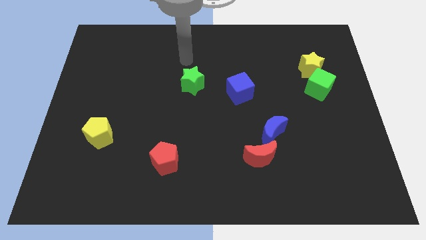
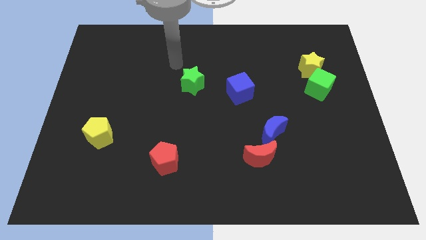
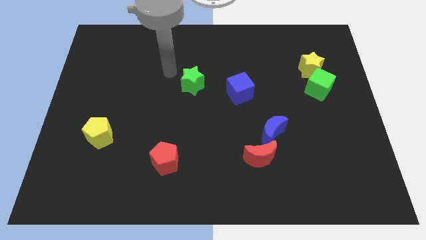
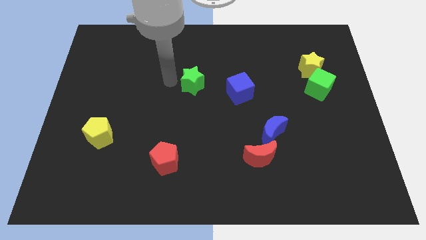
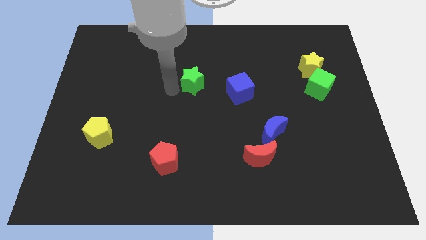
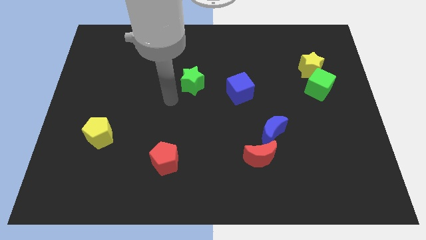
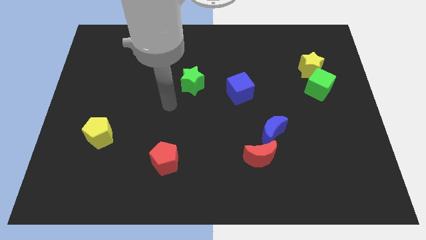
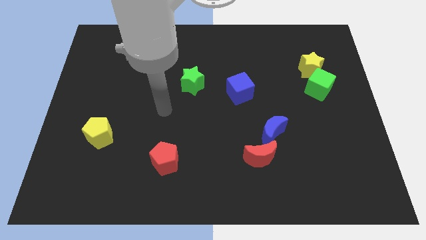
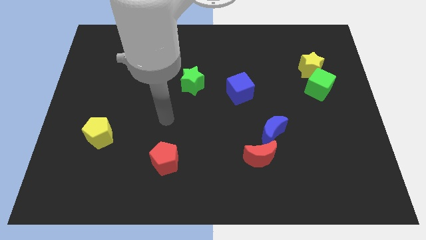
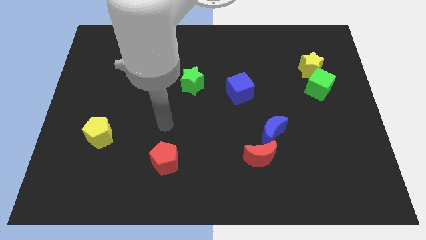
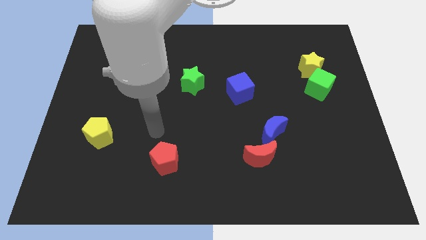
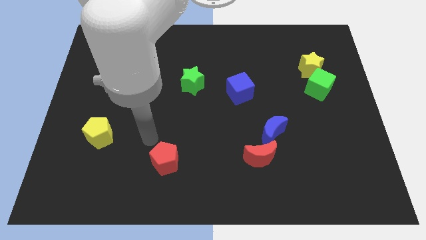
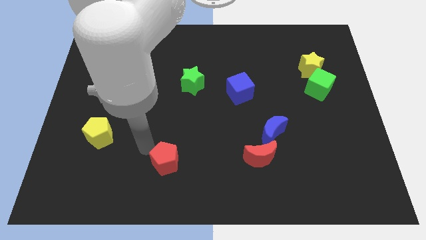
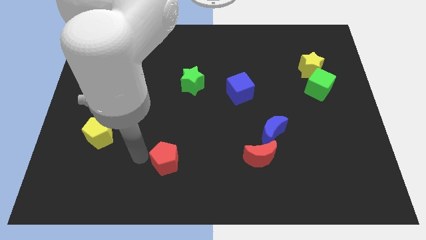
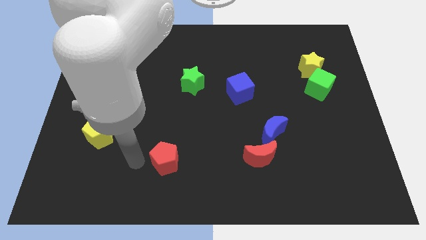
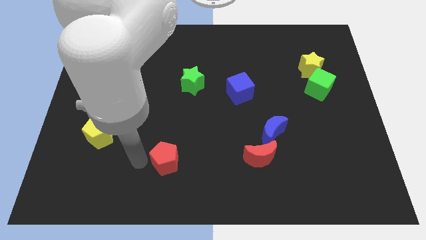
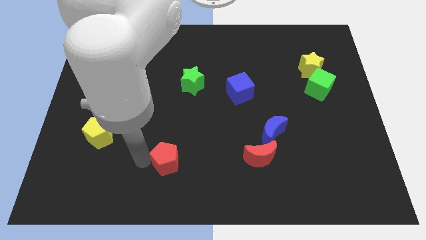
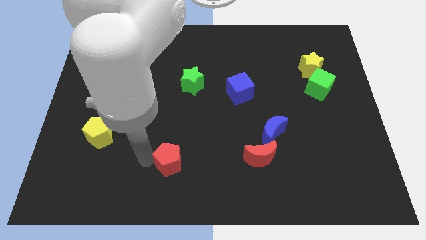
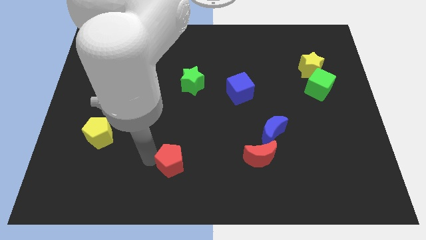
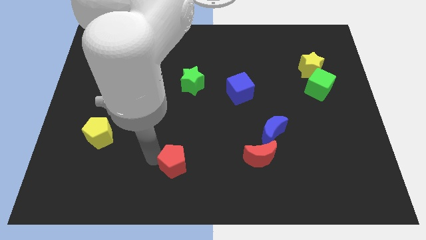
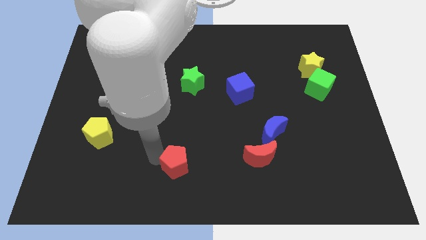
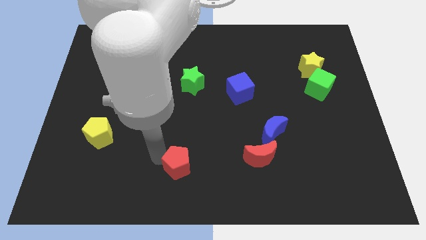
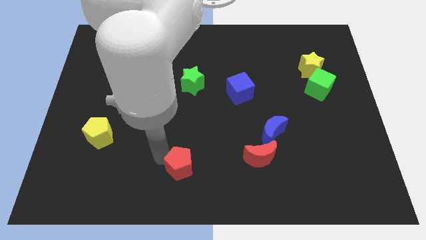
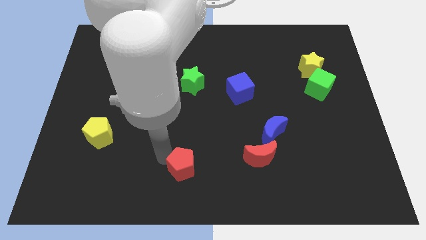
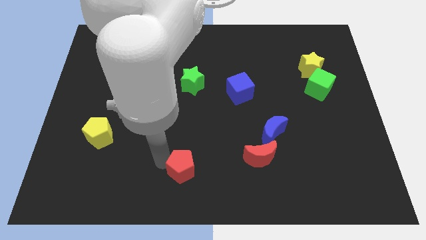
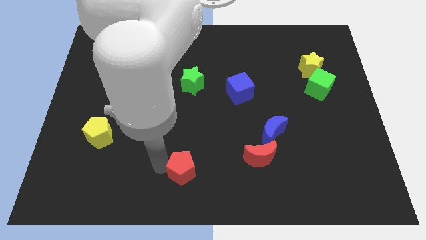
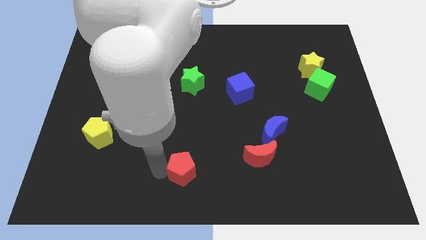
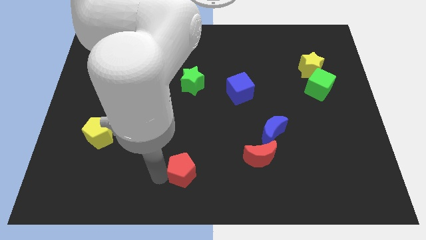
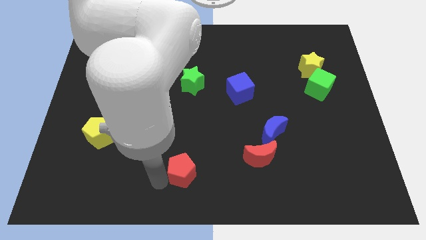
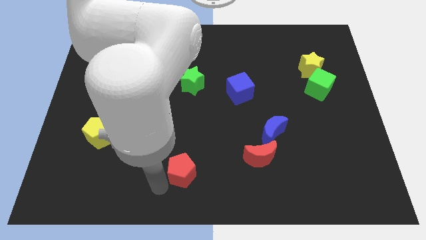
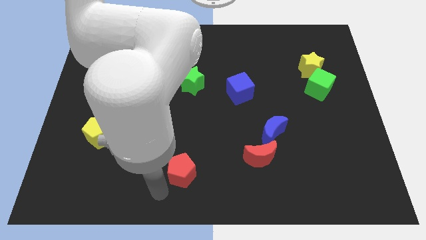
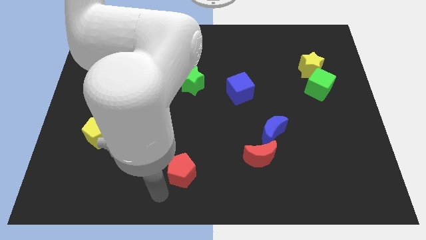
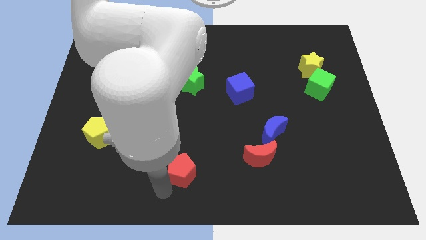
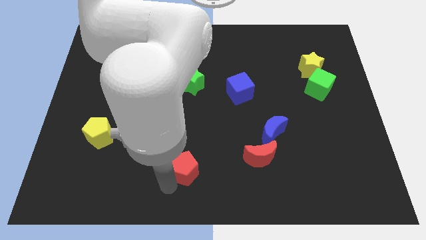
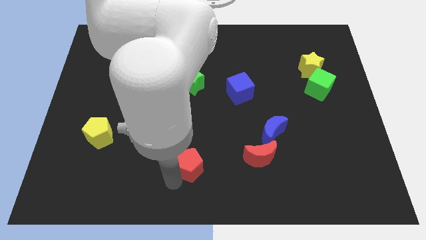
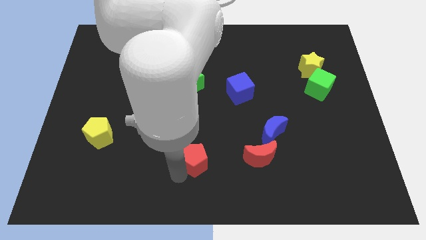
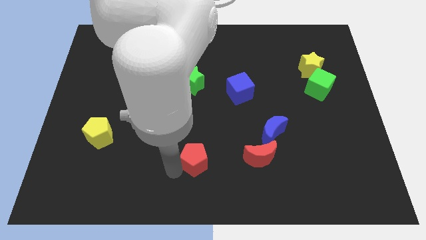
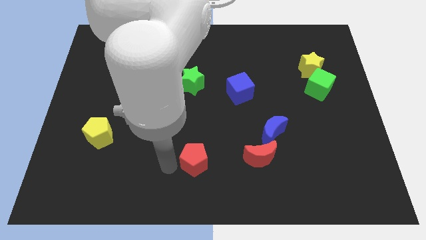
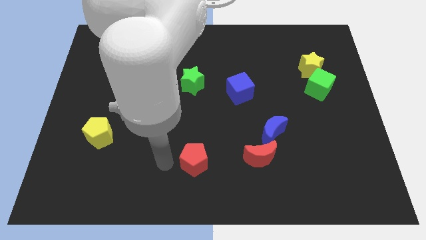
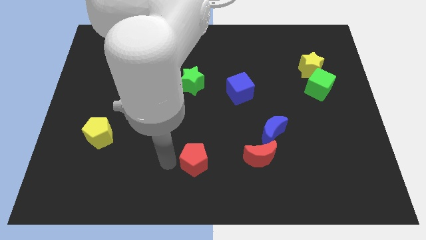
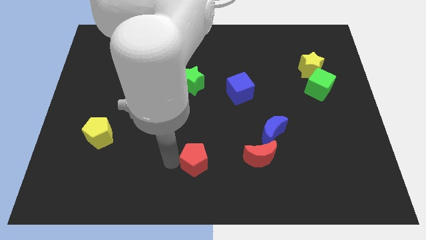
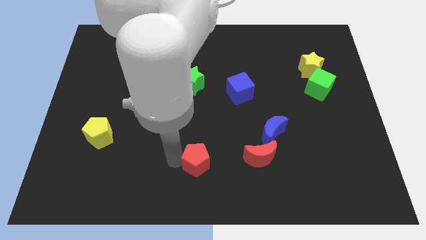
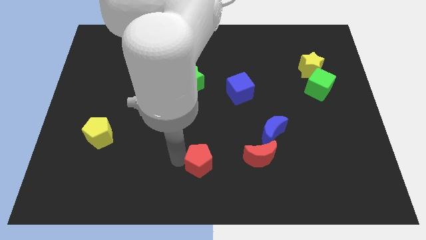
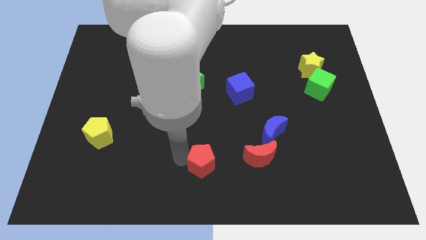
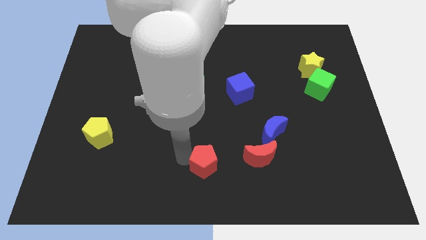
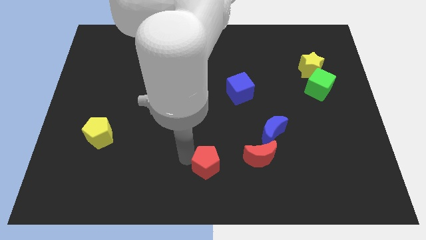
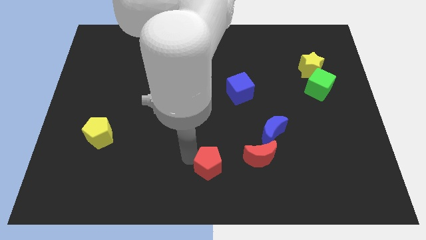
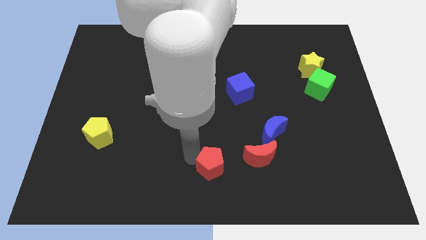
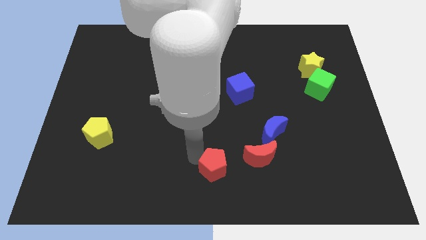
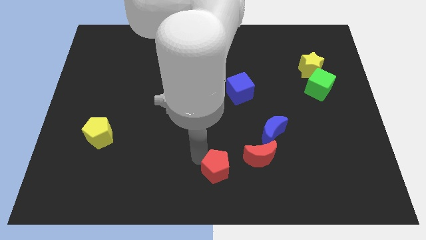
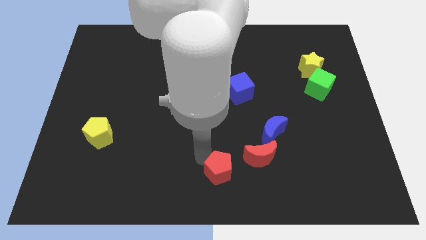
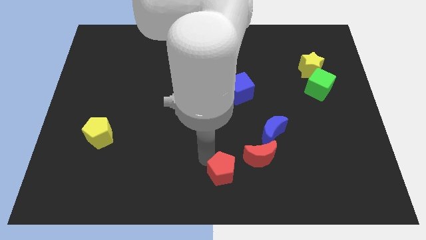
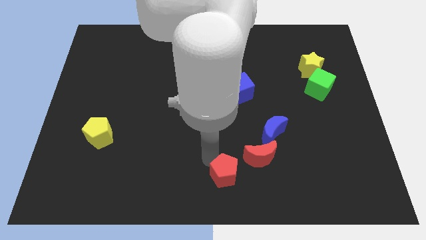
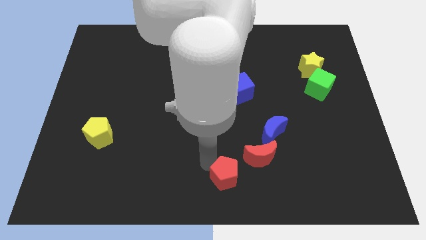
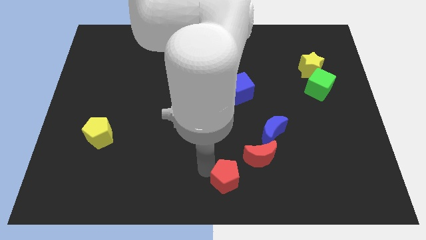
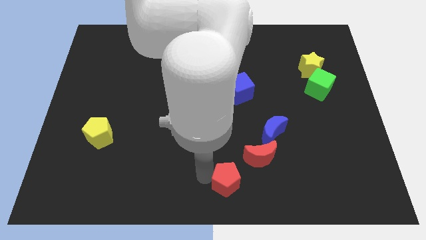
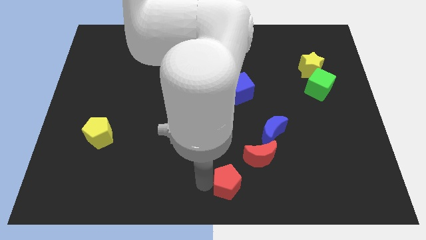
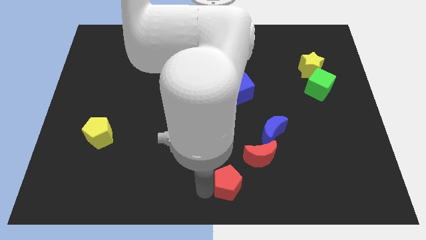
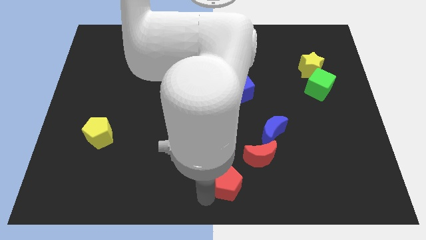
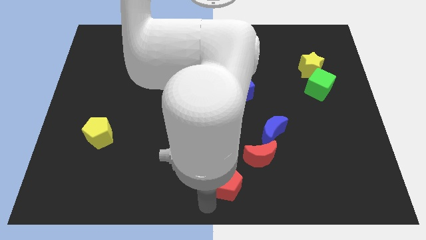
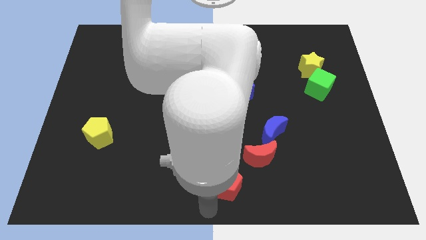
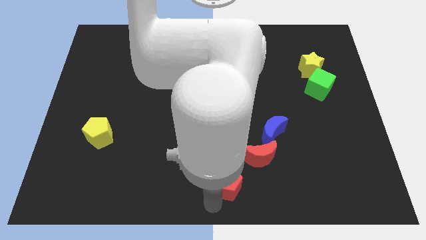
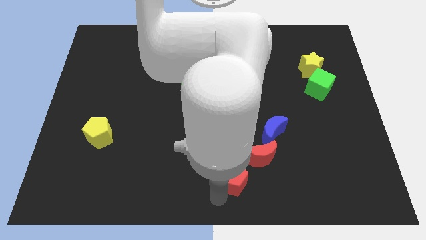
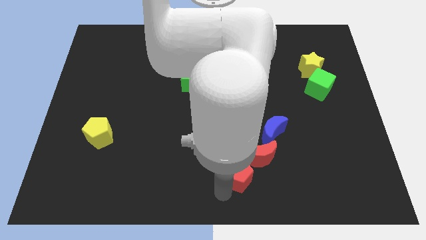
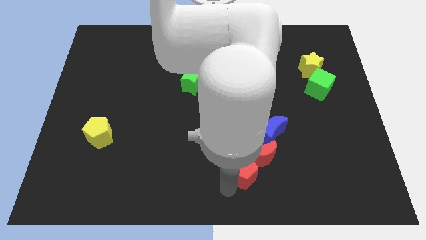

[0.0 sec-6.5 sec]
put the red pentagon to the red moon

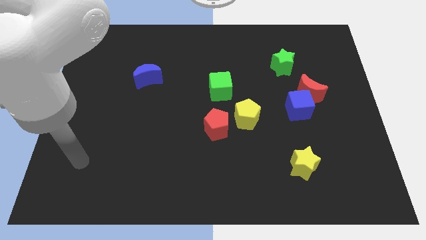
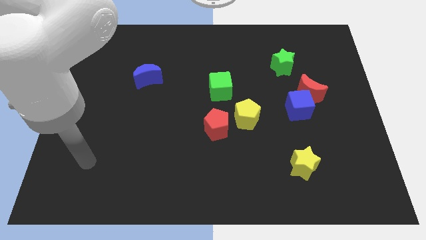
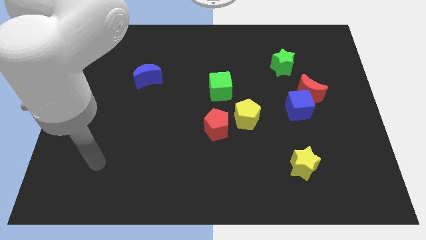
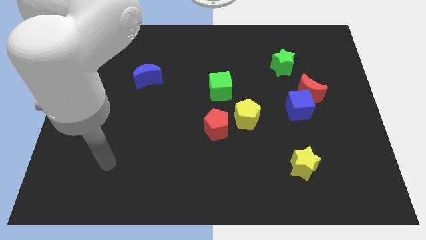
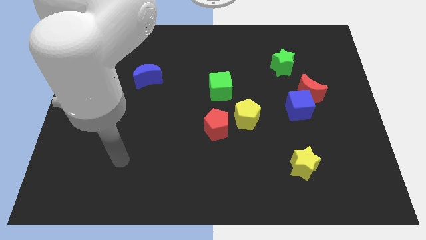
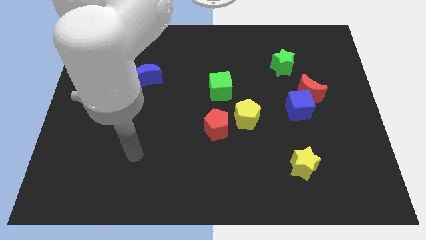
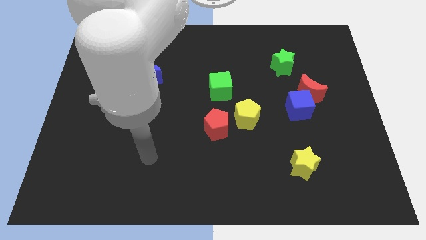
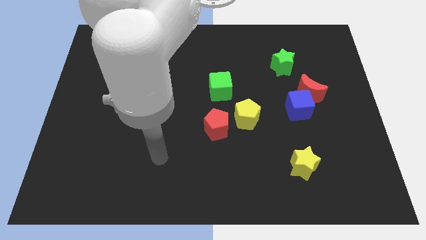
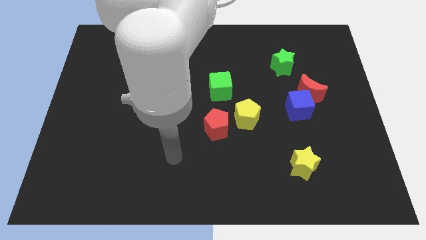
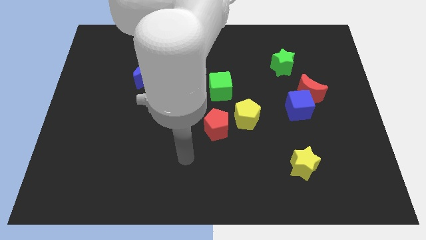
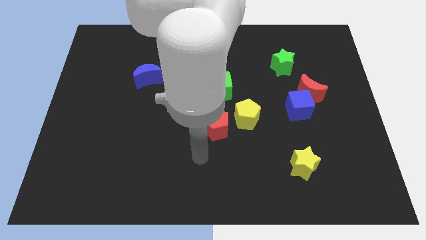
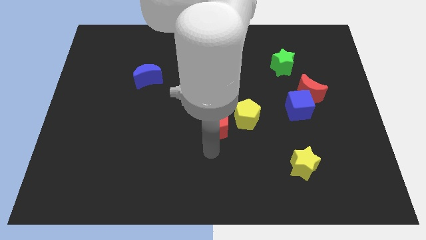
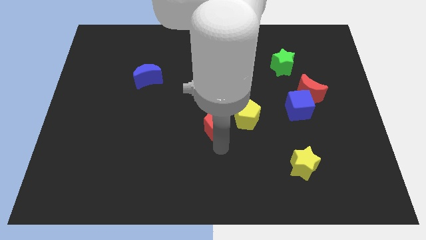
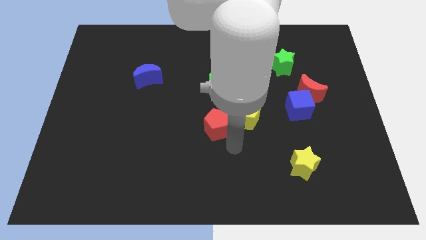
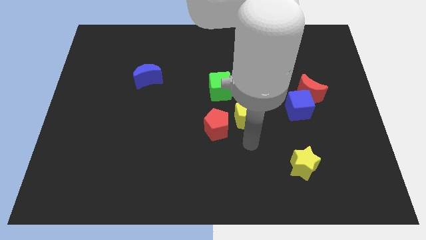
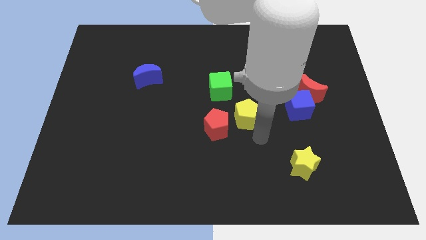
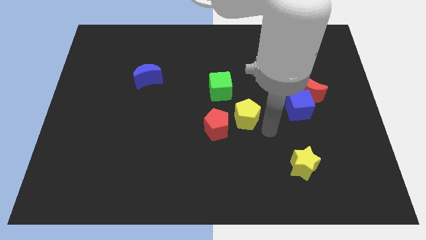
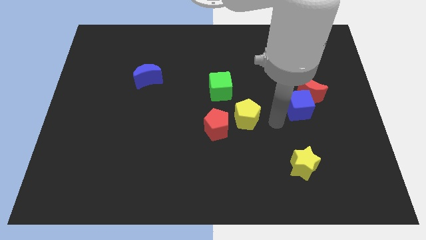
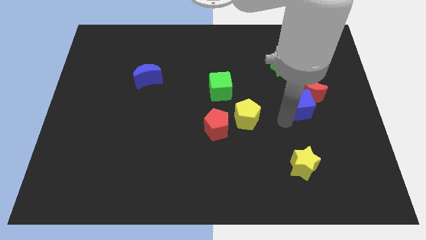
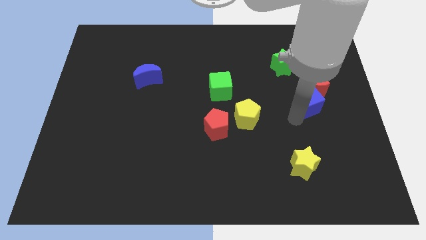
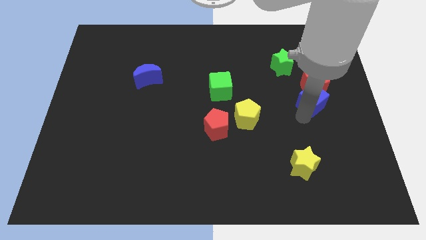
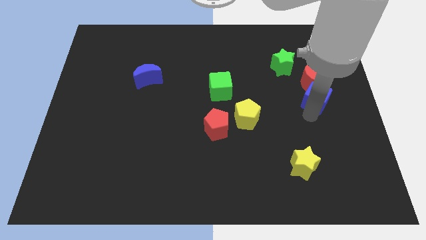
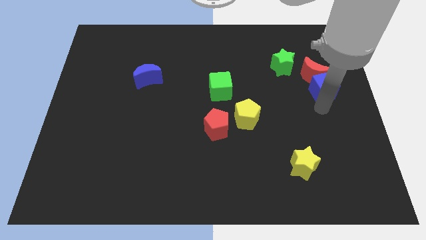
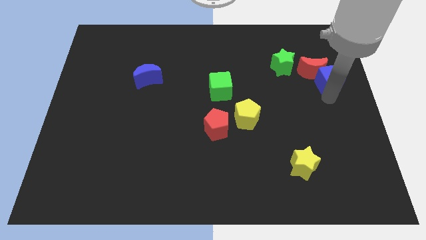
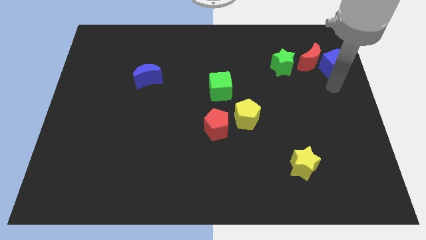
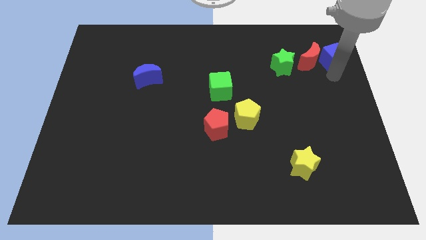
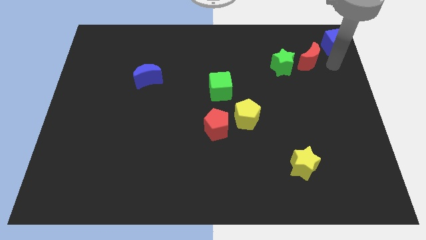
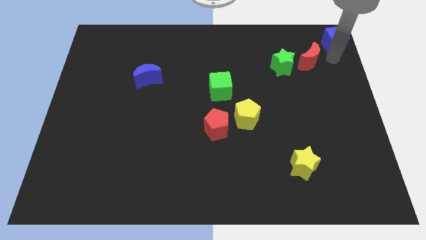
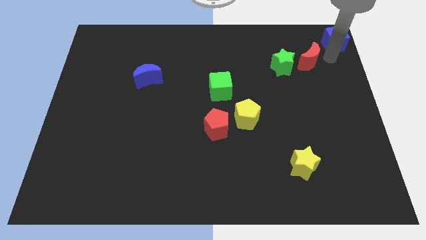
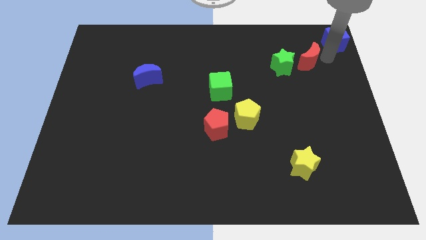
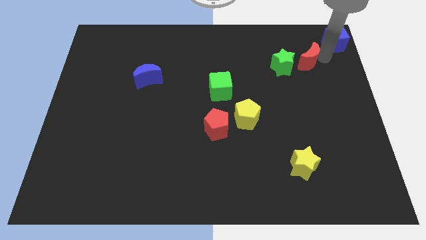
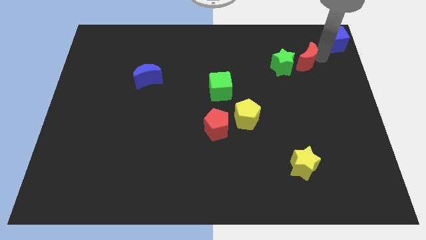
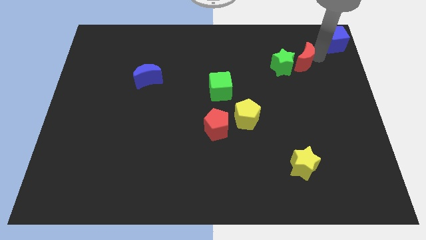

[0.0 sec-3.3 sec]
slide the red moon towards the green star
